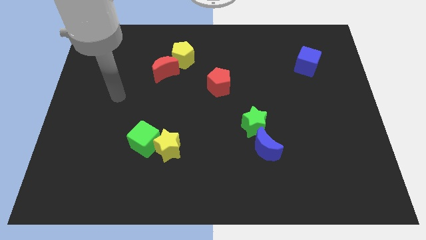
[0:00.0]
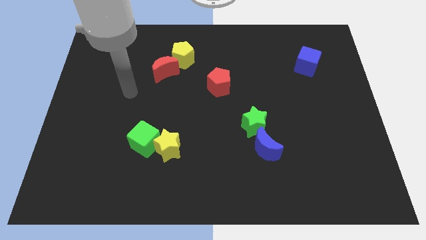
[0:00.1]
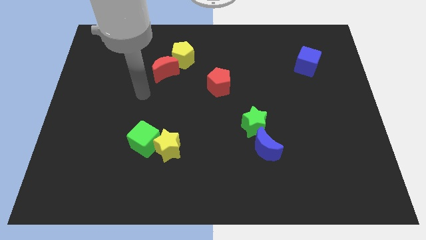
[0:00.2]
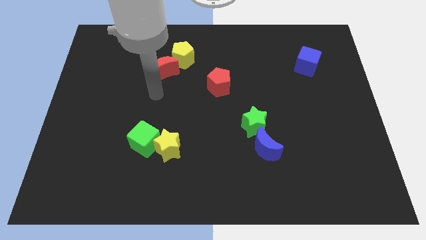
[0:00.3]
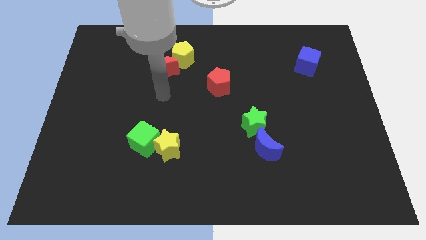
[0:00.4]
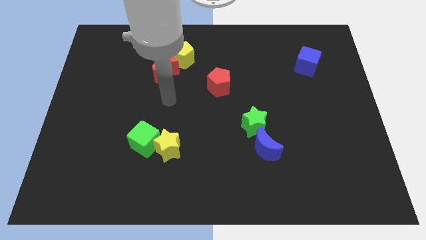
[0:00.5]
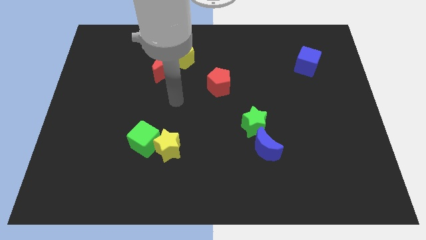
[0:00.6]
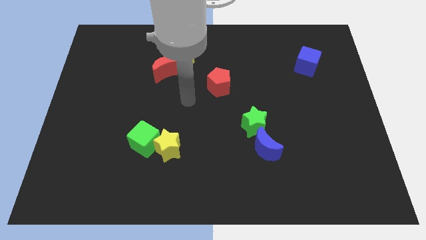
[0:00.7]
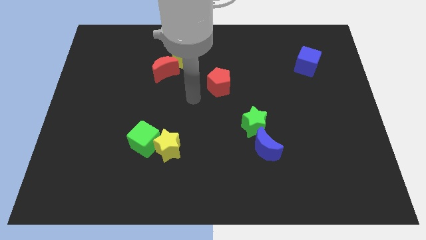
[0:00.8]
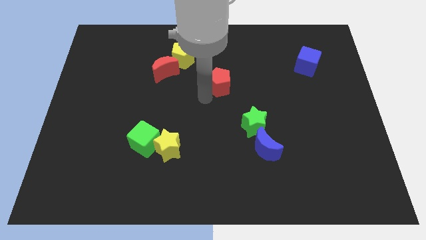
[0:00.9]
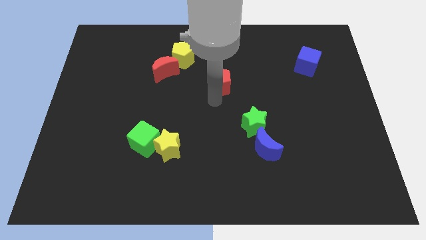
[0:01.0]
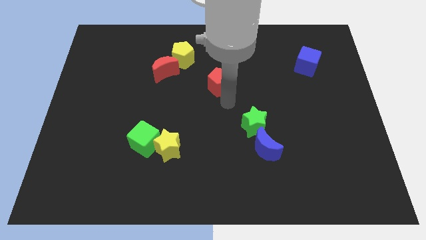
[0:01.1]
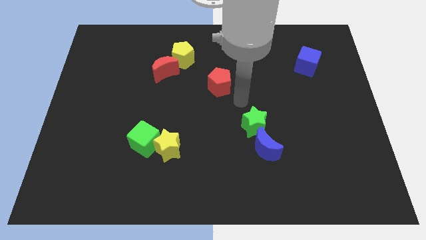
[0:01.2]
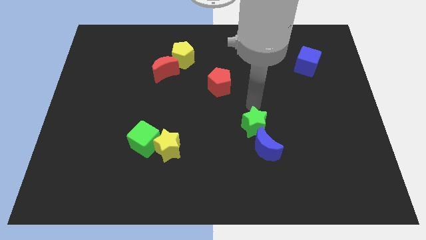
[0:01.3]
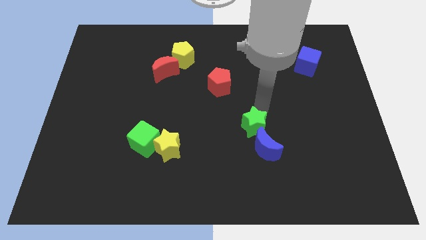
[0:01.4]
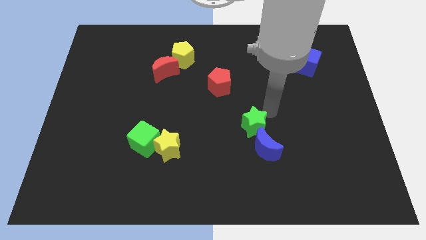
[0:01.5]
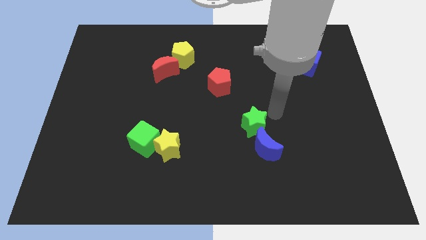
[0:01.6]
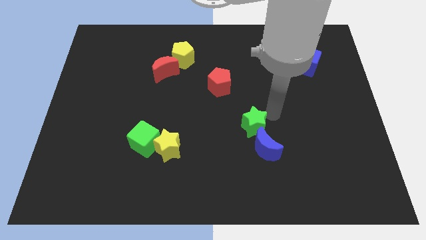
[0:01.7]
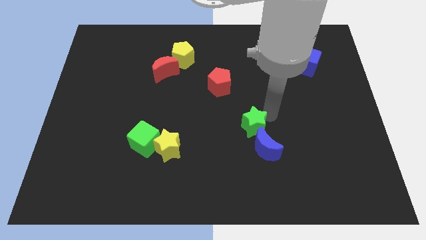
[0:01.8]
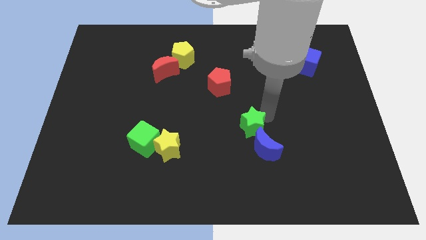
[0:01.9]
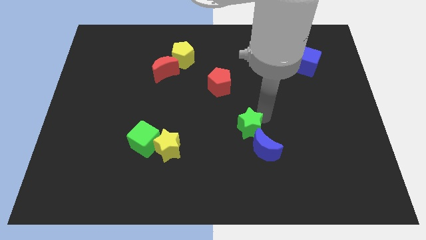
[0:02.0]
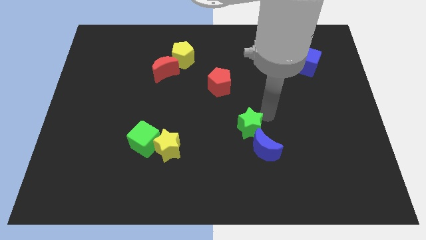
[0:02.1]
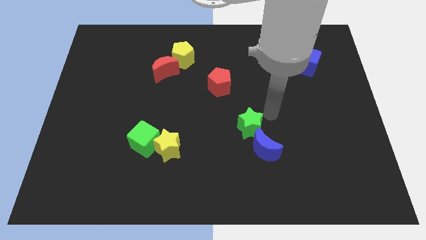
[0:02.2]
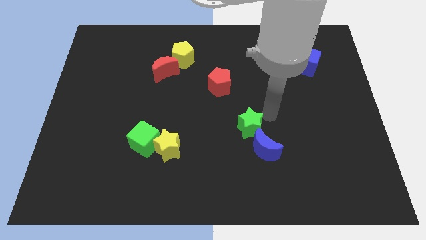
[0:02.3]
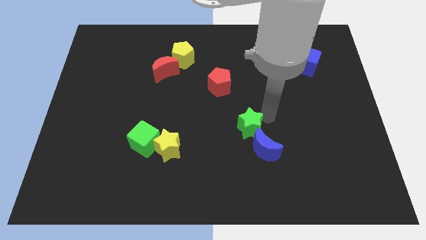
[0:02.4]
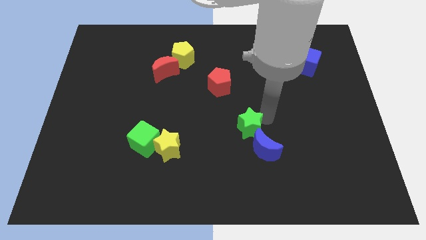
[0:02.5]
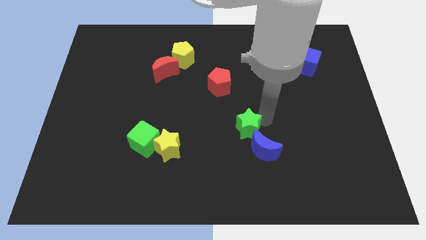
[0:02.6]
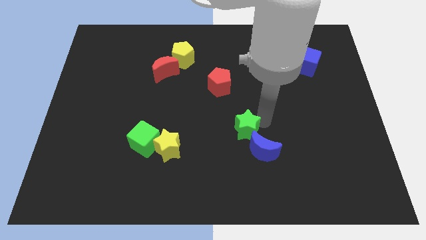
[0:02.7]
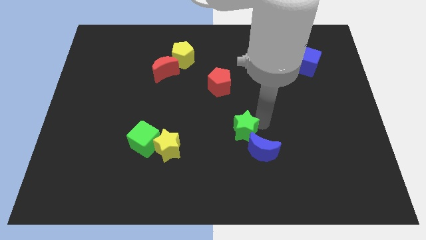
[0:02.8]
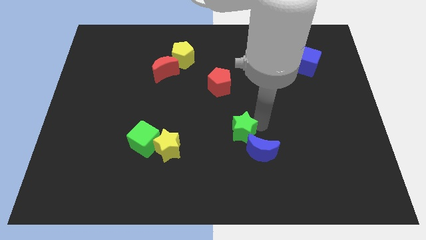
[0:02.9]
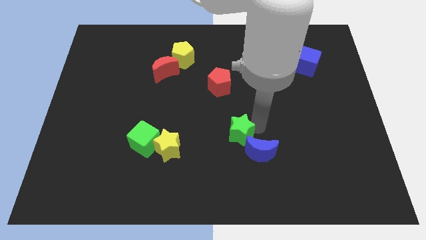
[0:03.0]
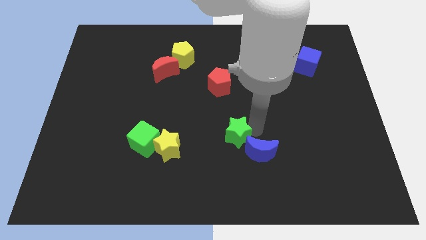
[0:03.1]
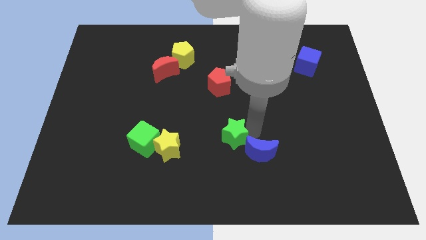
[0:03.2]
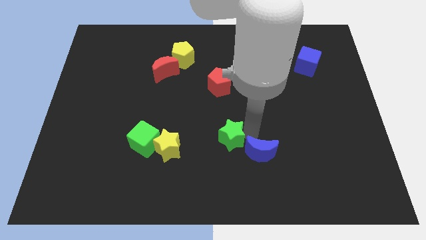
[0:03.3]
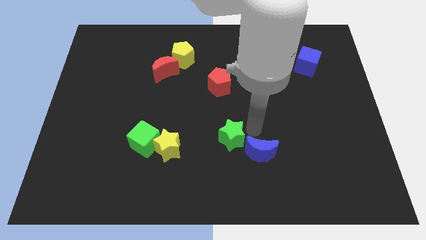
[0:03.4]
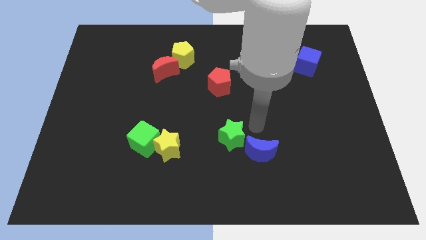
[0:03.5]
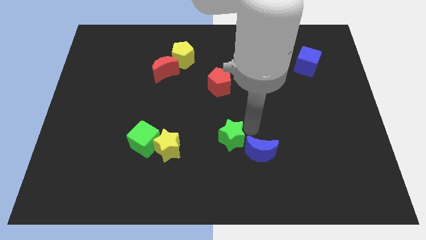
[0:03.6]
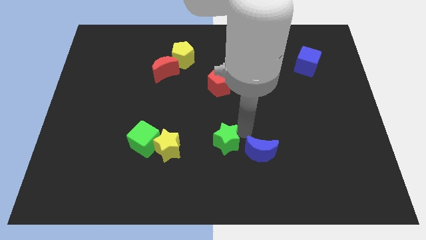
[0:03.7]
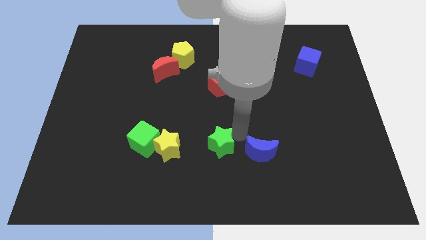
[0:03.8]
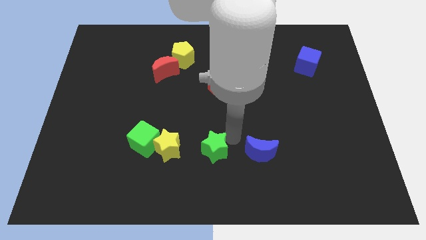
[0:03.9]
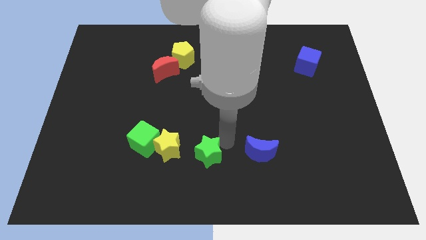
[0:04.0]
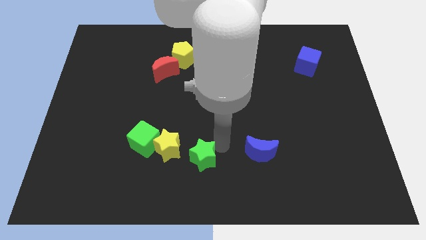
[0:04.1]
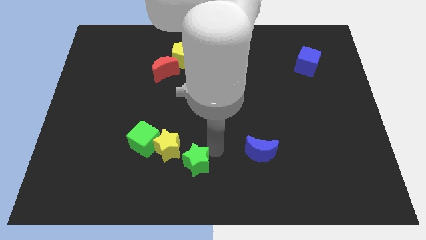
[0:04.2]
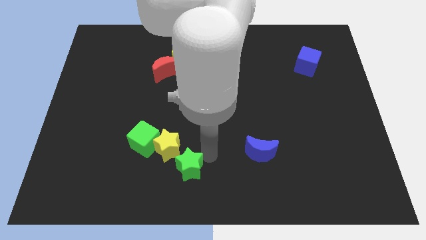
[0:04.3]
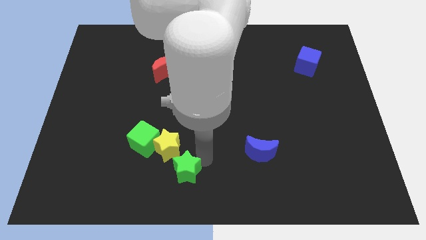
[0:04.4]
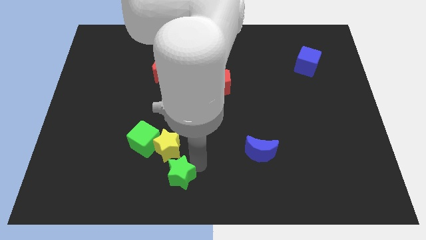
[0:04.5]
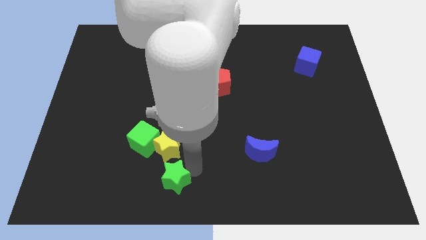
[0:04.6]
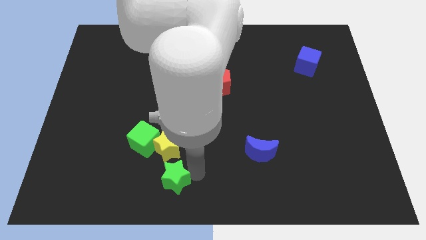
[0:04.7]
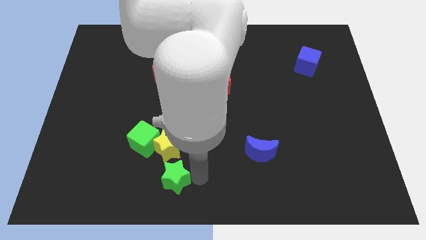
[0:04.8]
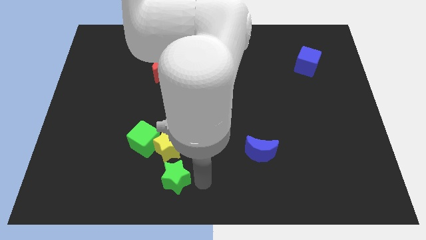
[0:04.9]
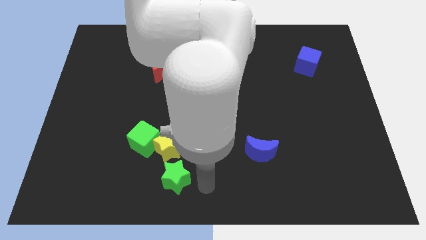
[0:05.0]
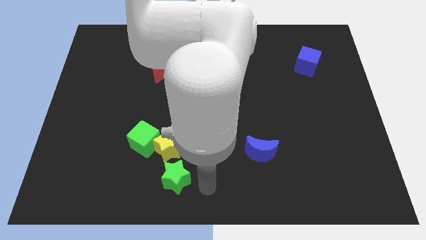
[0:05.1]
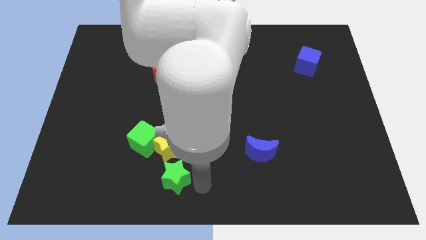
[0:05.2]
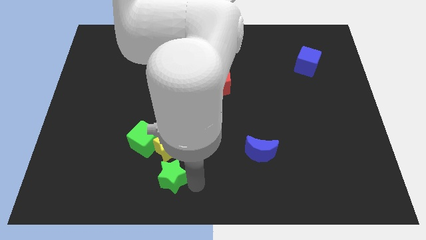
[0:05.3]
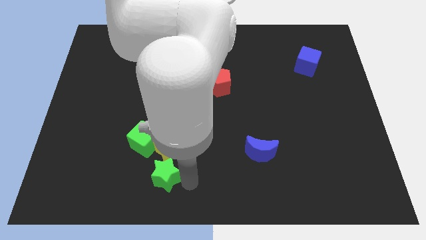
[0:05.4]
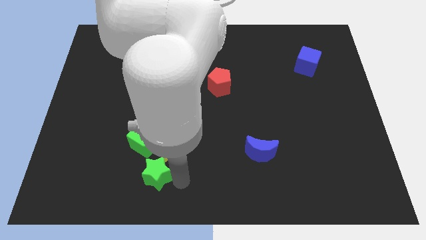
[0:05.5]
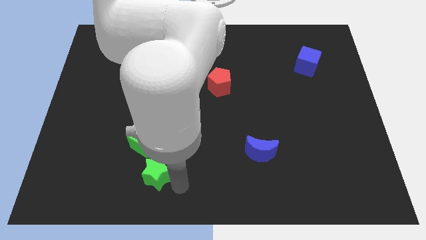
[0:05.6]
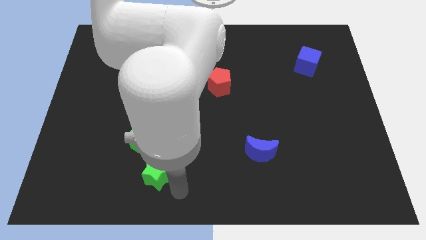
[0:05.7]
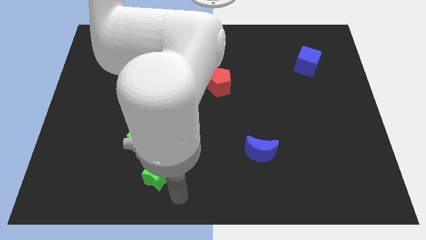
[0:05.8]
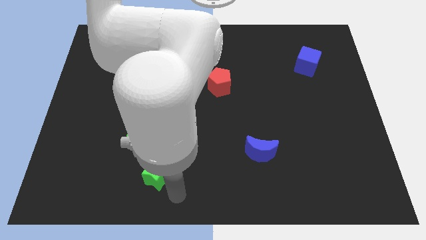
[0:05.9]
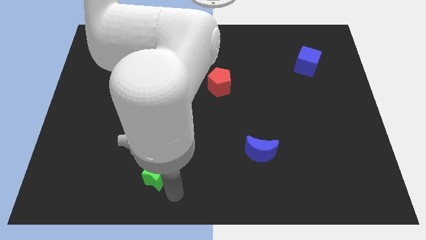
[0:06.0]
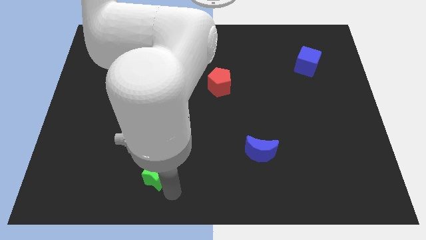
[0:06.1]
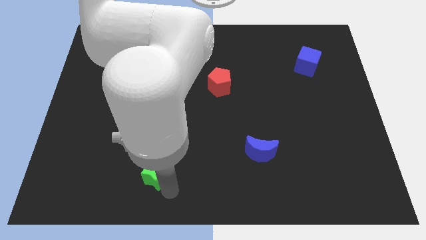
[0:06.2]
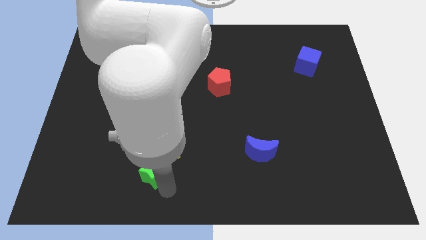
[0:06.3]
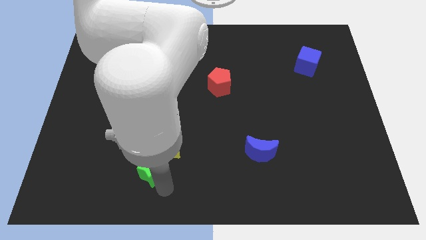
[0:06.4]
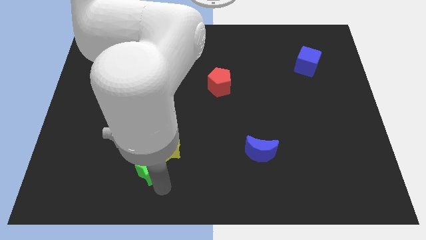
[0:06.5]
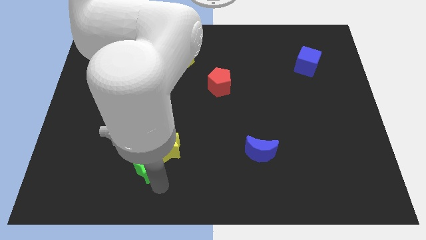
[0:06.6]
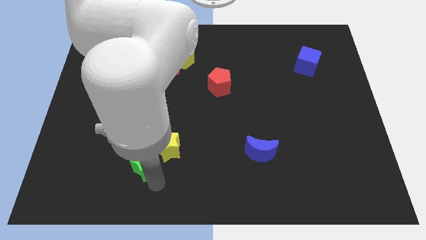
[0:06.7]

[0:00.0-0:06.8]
move the green star to the left of the yellow star

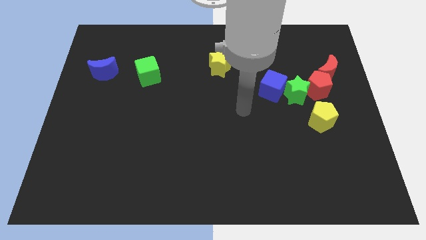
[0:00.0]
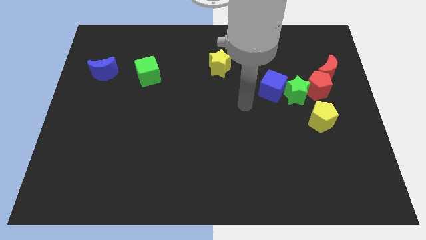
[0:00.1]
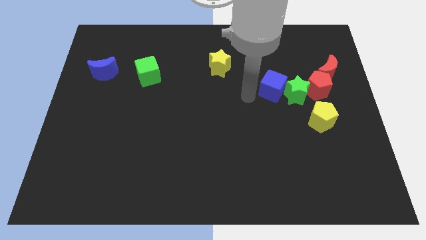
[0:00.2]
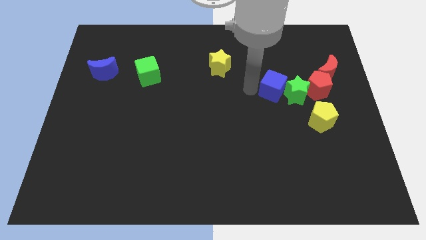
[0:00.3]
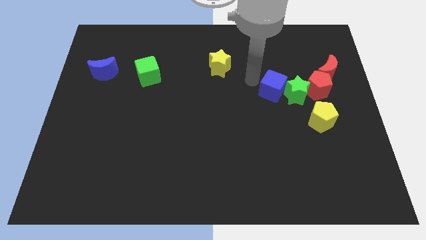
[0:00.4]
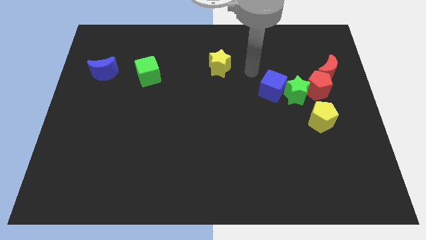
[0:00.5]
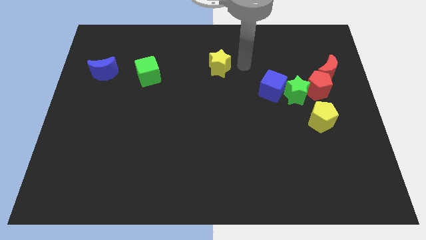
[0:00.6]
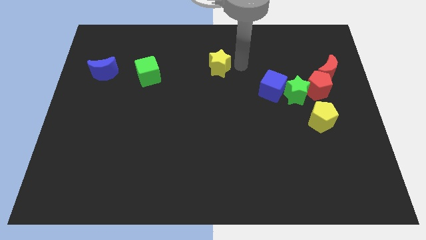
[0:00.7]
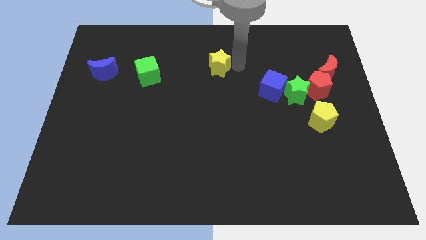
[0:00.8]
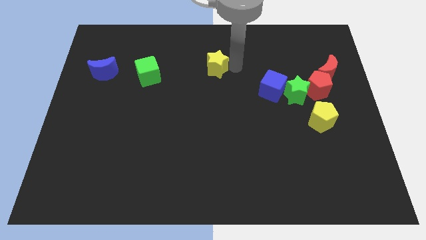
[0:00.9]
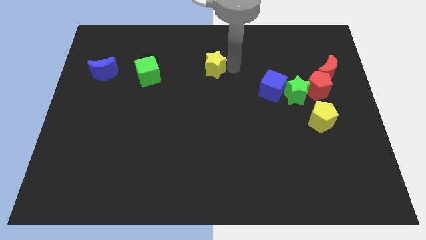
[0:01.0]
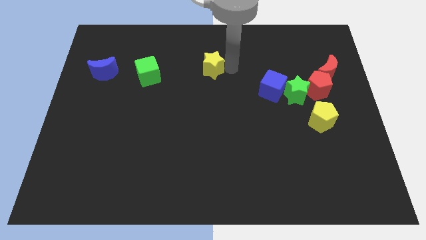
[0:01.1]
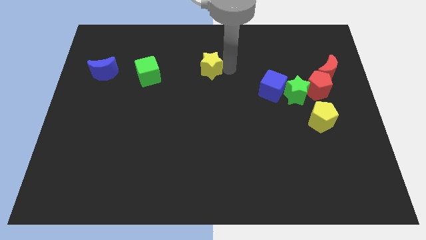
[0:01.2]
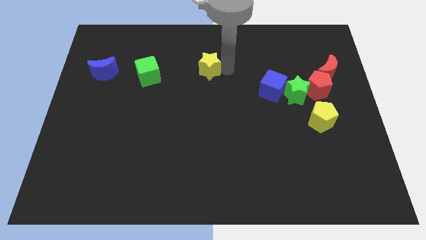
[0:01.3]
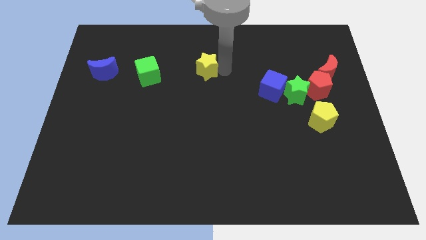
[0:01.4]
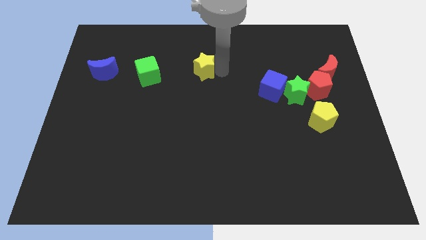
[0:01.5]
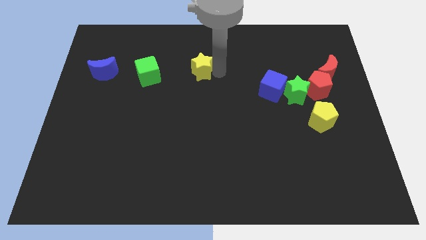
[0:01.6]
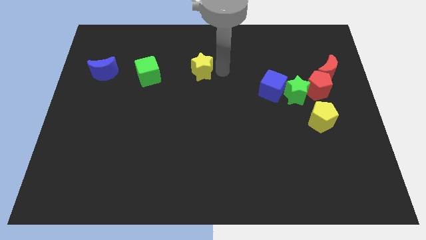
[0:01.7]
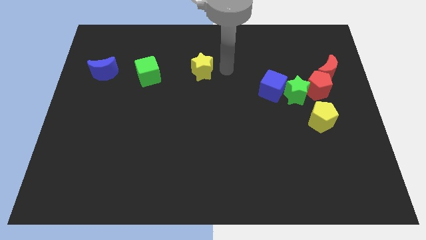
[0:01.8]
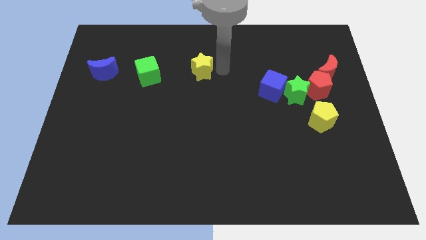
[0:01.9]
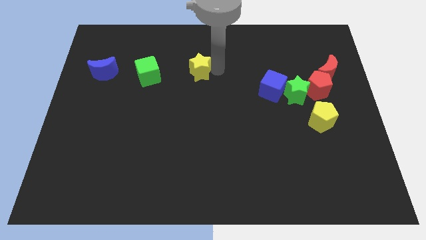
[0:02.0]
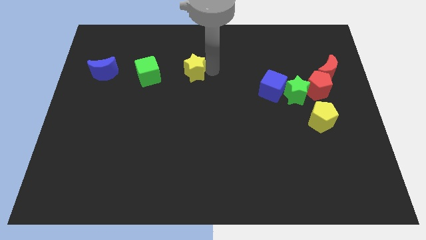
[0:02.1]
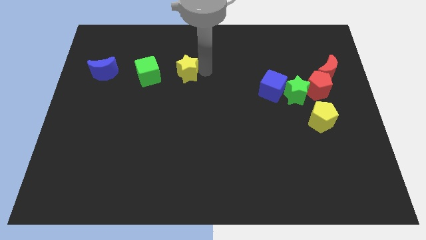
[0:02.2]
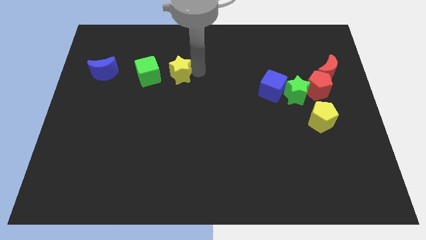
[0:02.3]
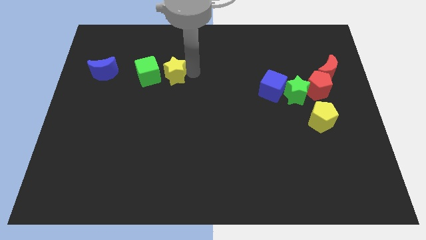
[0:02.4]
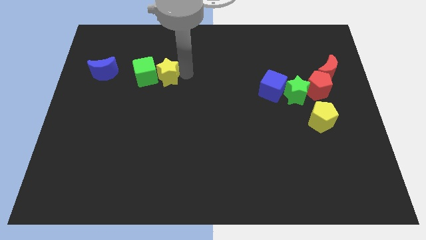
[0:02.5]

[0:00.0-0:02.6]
put the yellow star to the right of the blue moon
